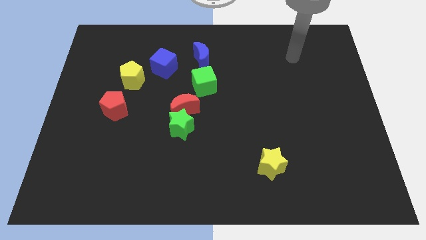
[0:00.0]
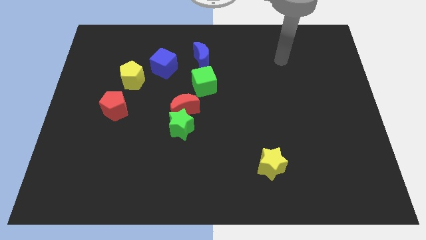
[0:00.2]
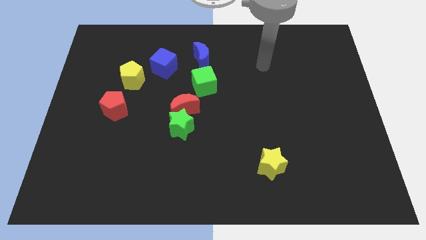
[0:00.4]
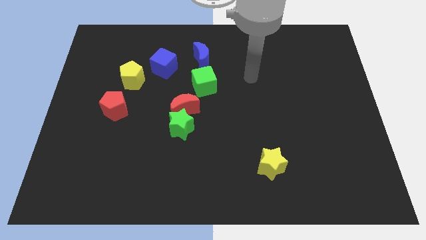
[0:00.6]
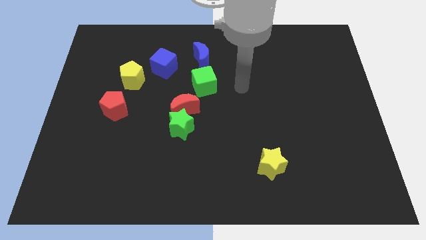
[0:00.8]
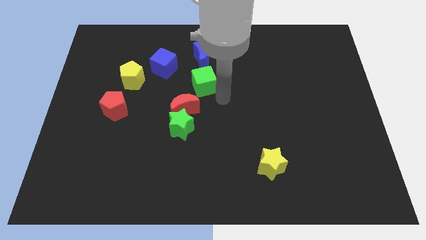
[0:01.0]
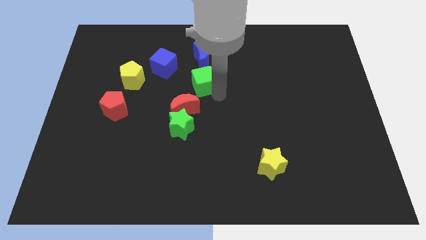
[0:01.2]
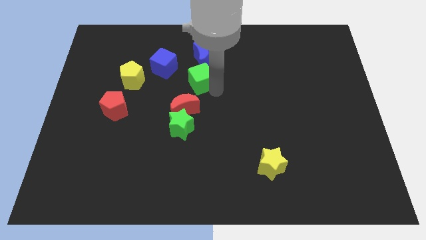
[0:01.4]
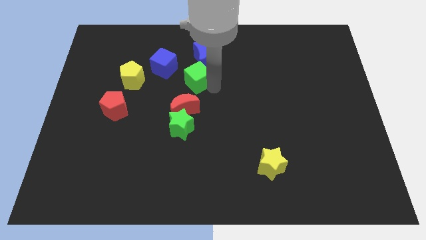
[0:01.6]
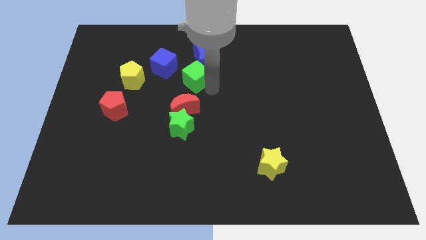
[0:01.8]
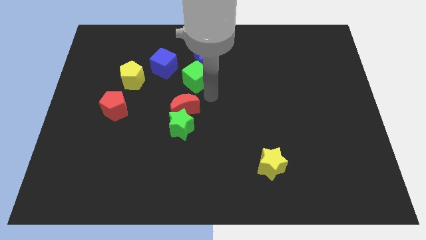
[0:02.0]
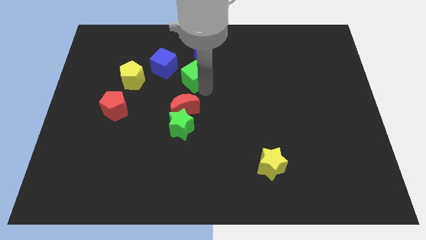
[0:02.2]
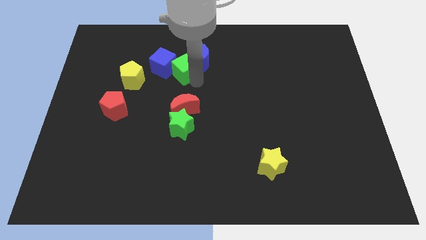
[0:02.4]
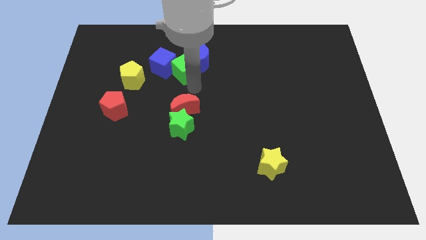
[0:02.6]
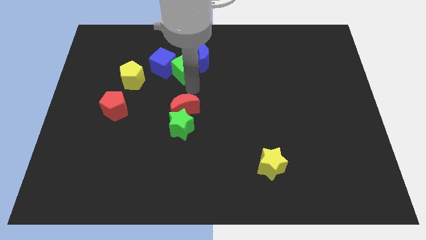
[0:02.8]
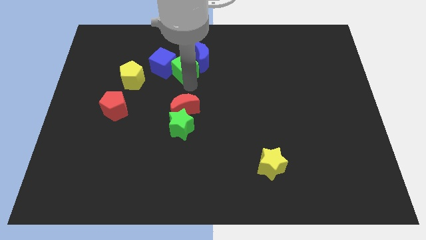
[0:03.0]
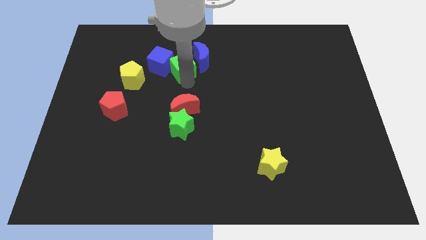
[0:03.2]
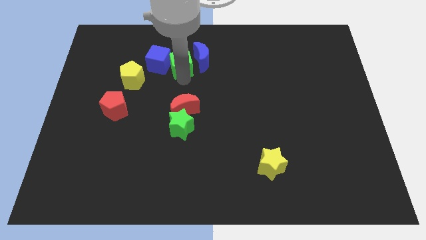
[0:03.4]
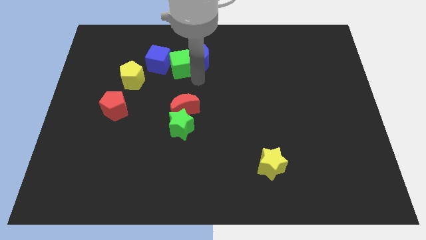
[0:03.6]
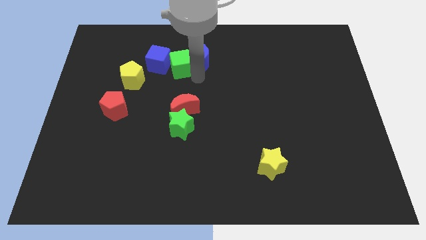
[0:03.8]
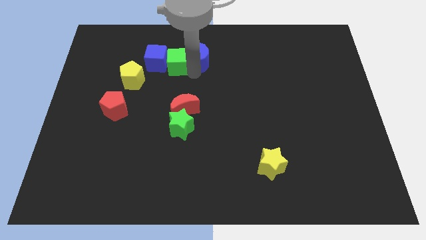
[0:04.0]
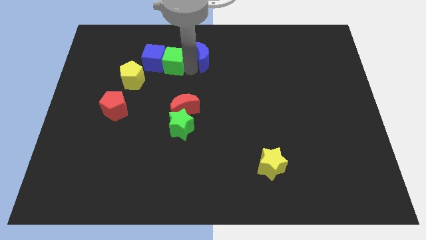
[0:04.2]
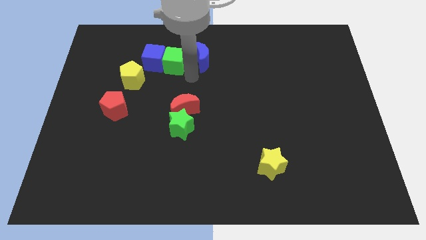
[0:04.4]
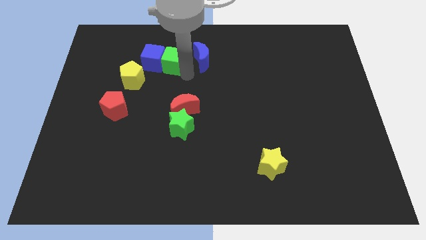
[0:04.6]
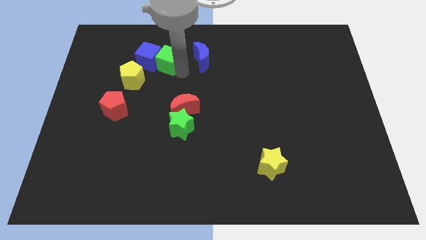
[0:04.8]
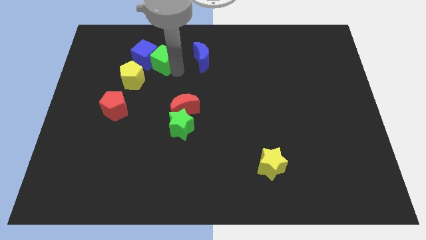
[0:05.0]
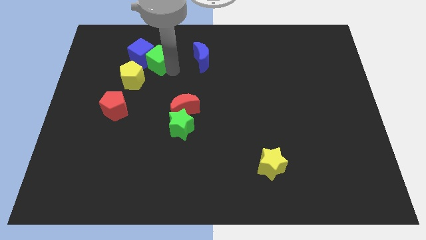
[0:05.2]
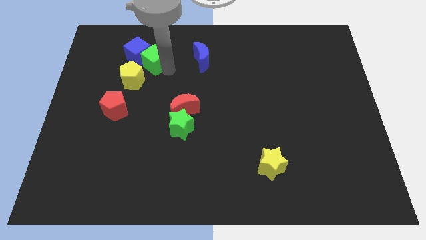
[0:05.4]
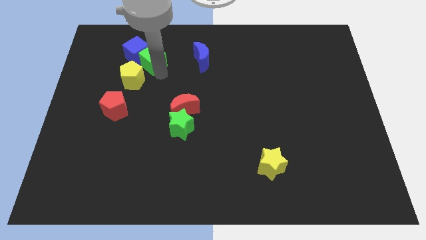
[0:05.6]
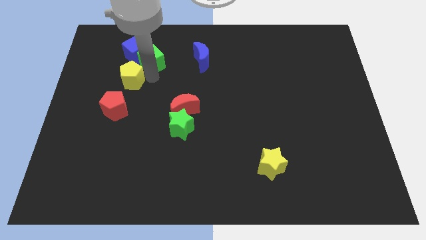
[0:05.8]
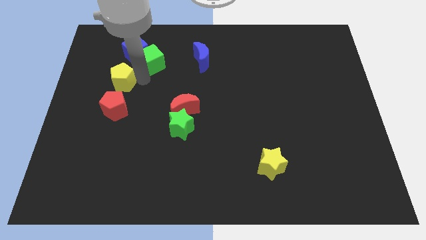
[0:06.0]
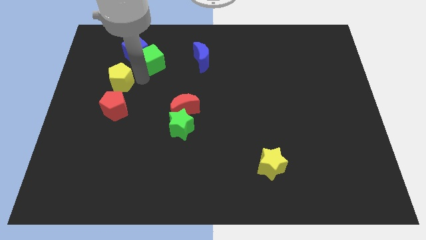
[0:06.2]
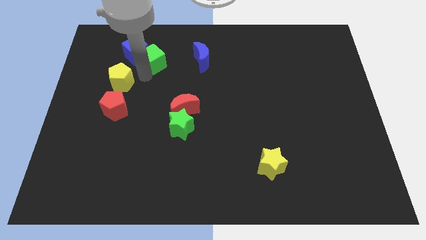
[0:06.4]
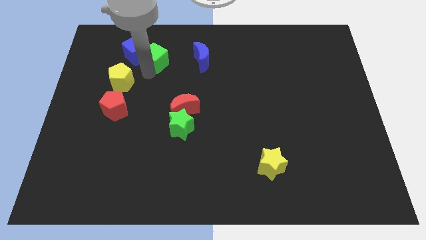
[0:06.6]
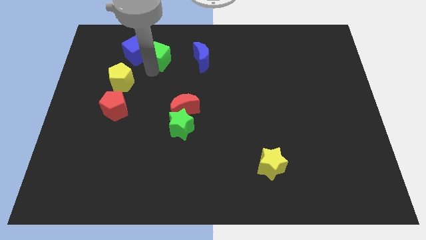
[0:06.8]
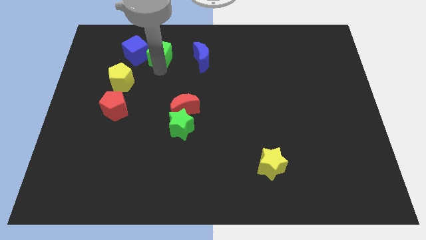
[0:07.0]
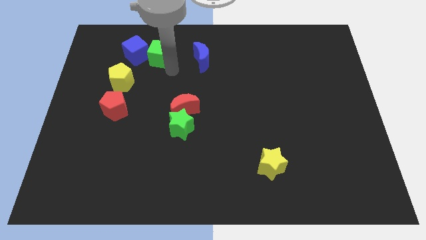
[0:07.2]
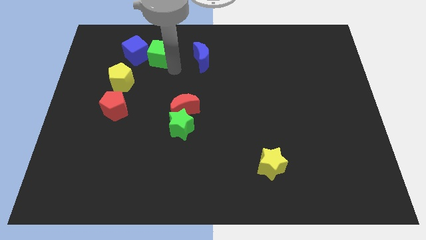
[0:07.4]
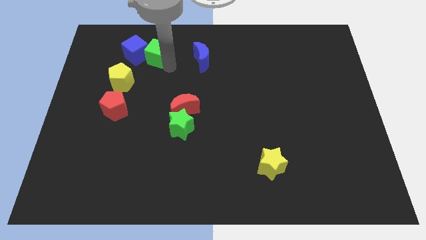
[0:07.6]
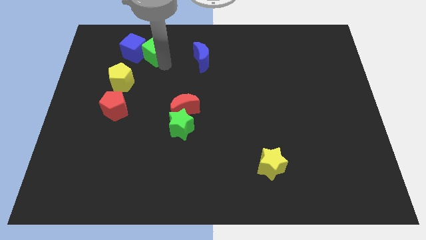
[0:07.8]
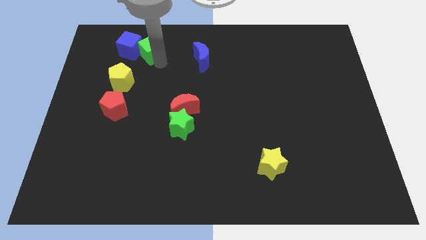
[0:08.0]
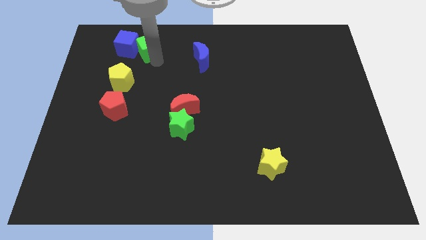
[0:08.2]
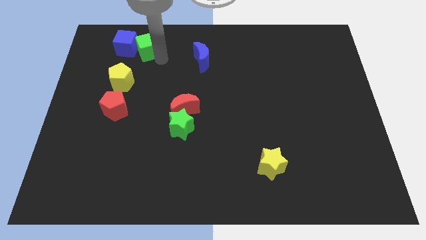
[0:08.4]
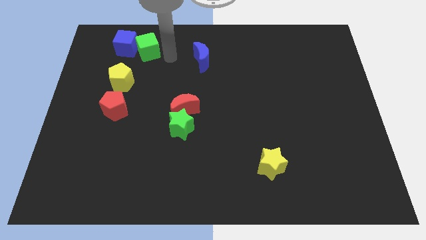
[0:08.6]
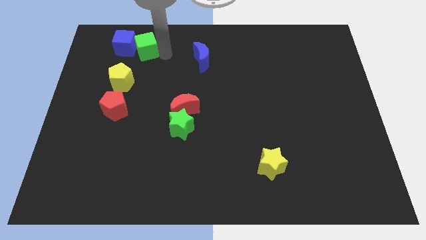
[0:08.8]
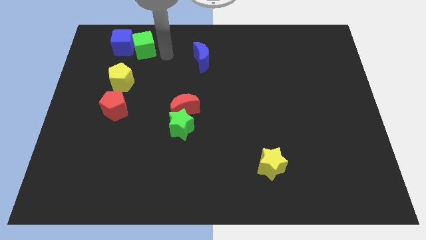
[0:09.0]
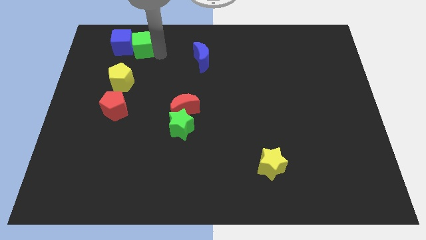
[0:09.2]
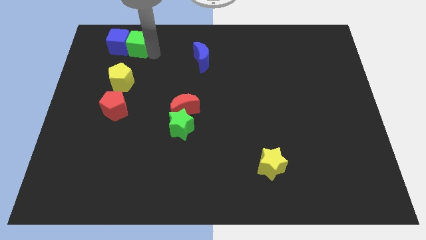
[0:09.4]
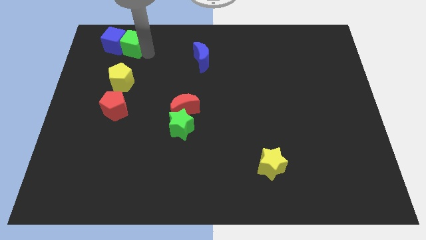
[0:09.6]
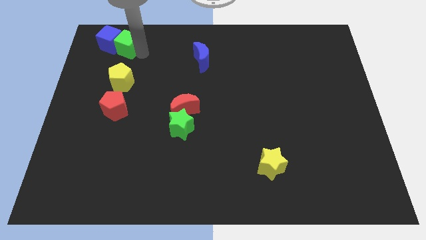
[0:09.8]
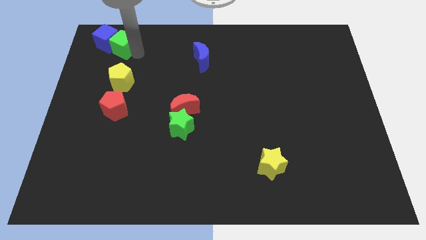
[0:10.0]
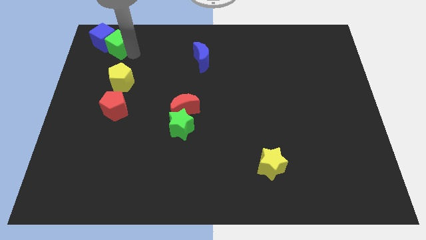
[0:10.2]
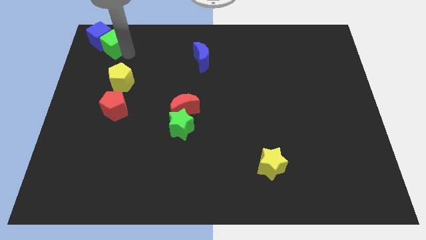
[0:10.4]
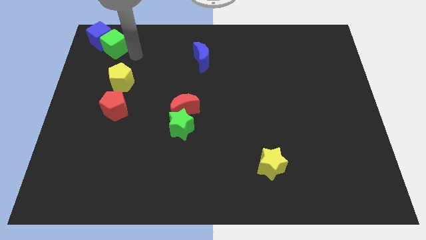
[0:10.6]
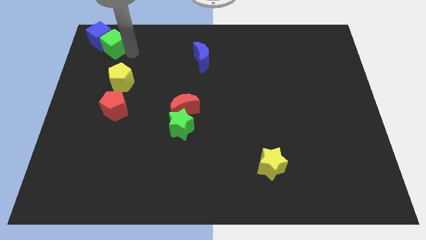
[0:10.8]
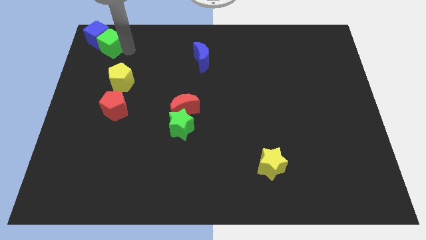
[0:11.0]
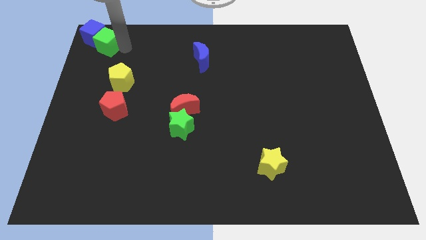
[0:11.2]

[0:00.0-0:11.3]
put the green cube to the top left

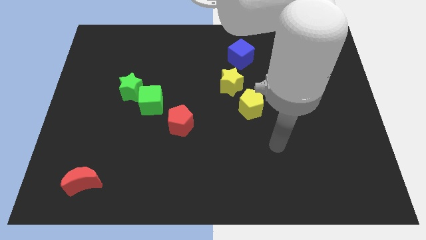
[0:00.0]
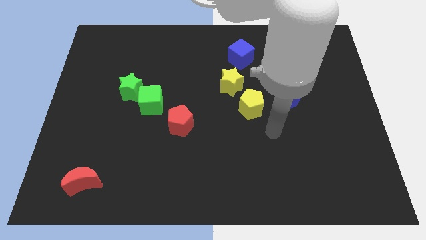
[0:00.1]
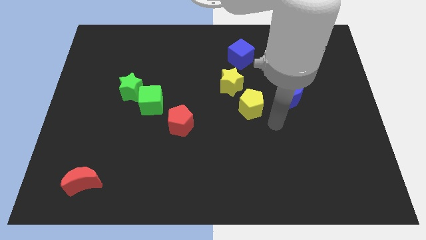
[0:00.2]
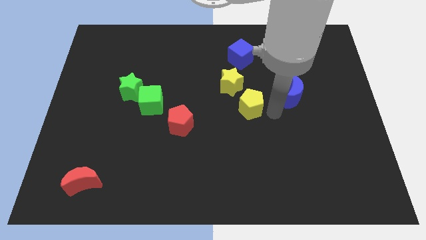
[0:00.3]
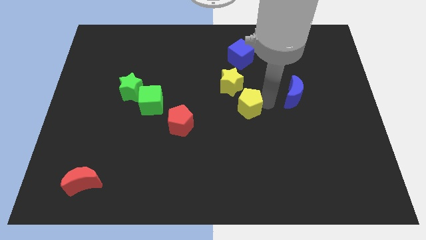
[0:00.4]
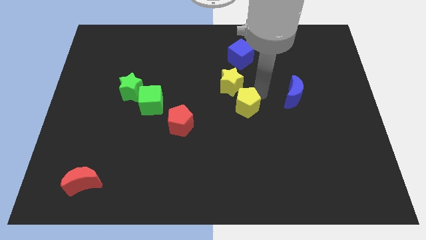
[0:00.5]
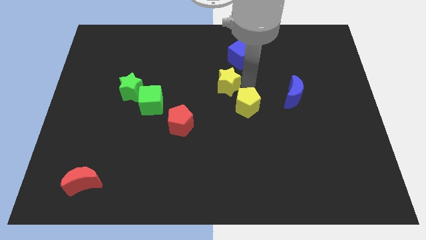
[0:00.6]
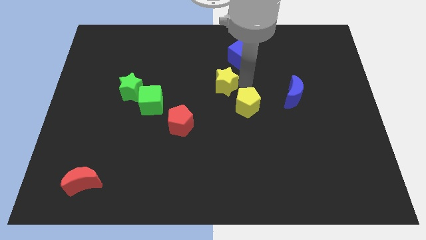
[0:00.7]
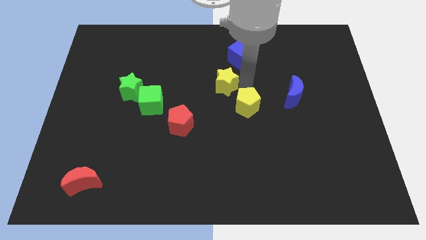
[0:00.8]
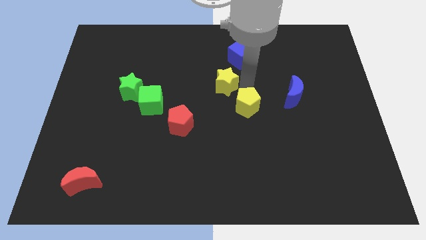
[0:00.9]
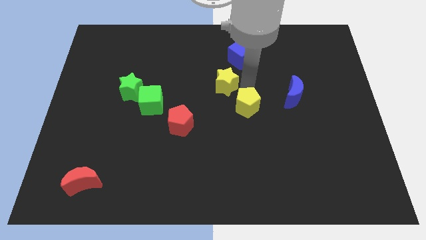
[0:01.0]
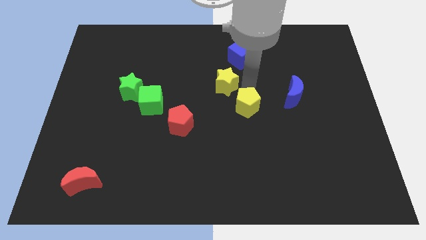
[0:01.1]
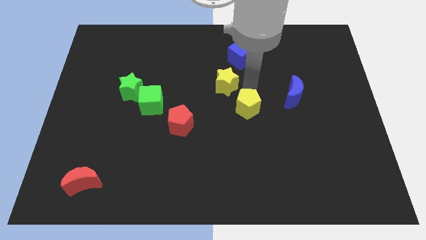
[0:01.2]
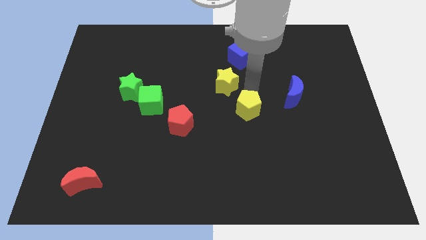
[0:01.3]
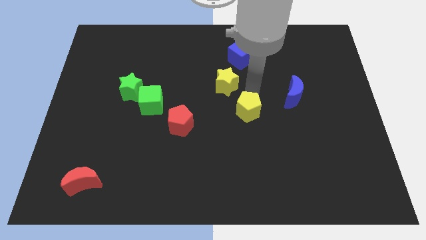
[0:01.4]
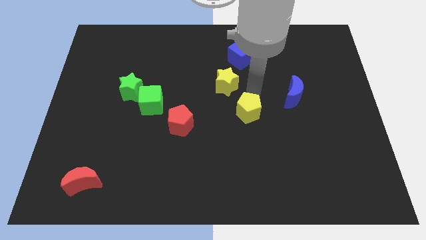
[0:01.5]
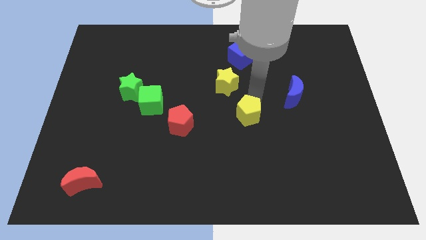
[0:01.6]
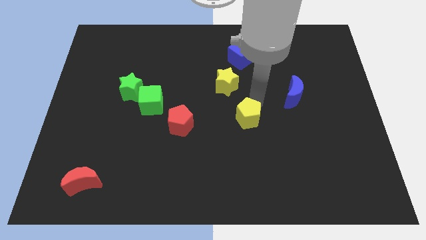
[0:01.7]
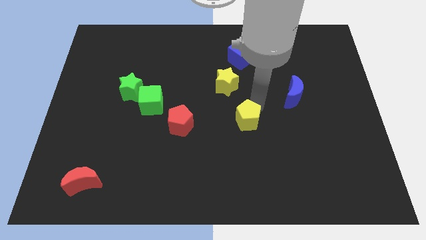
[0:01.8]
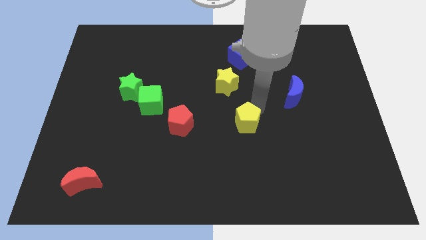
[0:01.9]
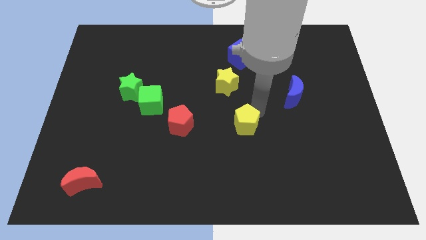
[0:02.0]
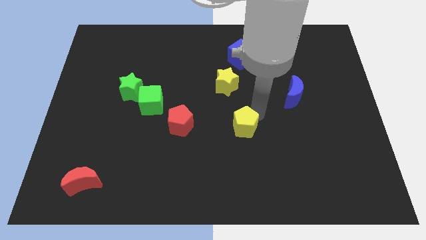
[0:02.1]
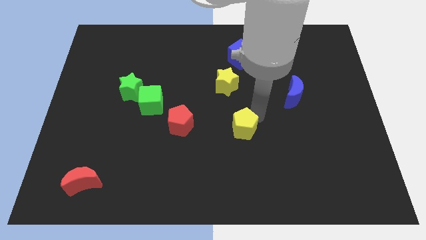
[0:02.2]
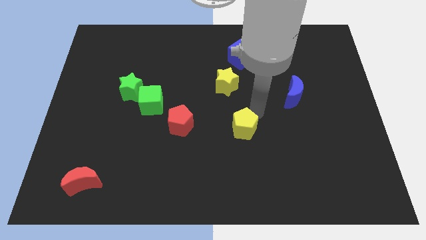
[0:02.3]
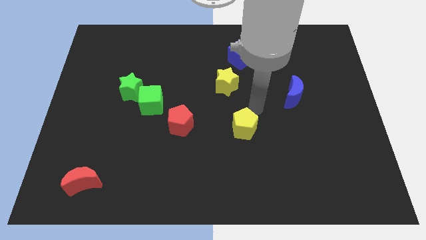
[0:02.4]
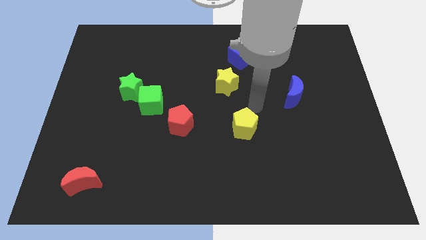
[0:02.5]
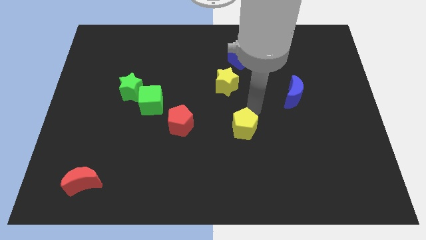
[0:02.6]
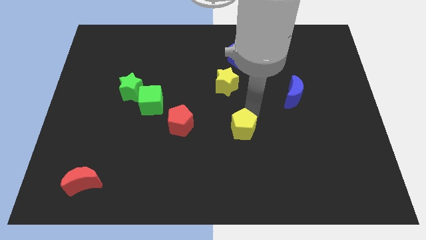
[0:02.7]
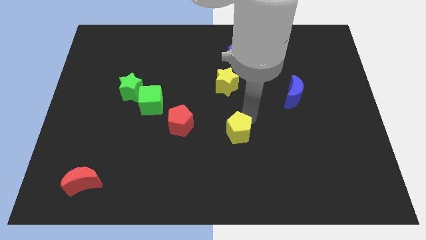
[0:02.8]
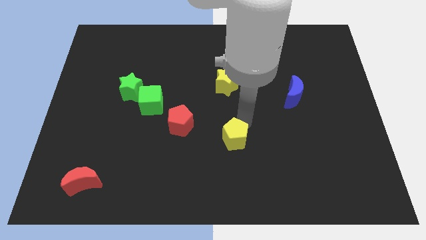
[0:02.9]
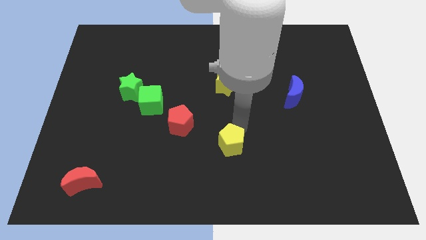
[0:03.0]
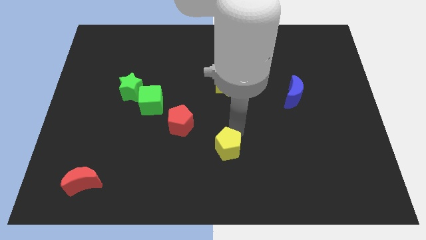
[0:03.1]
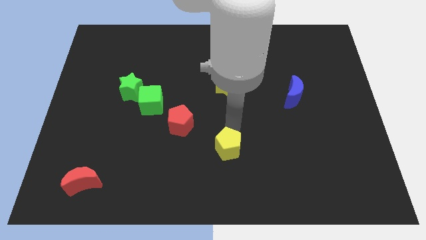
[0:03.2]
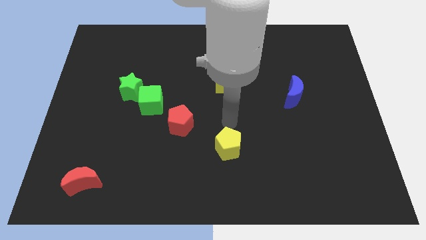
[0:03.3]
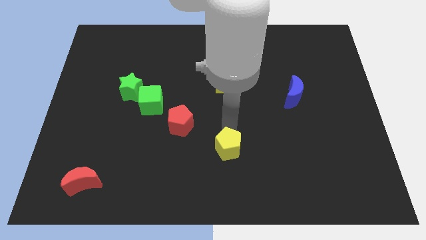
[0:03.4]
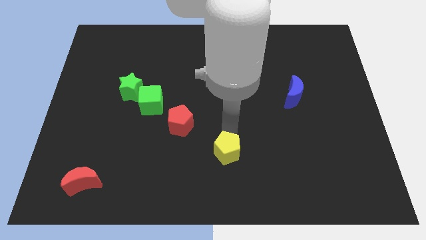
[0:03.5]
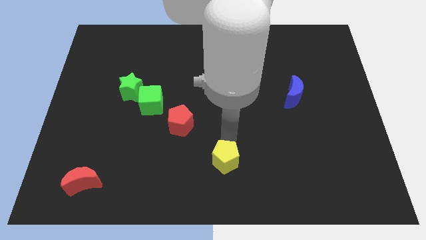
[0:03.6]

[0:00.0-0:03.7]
put the yellow pentagon to the bottom
